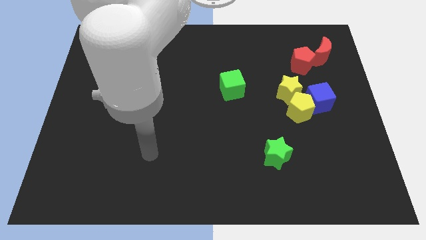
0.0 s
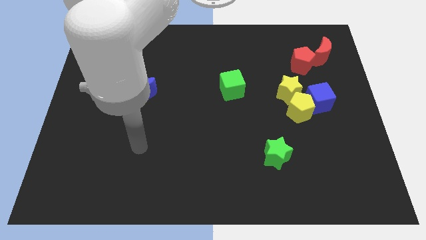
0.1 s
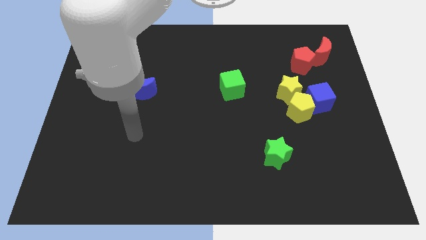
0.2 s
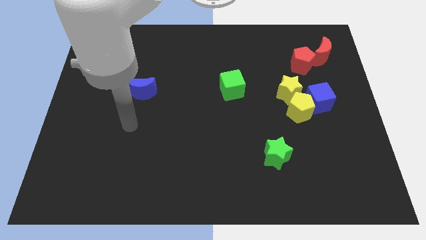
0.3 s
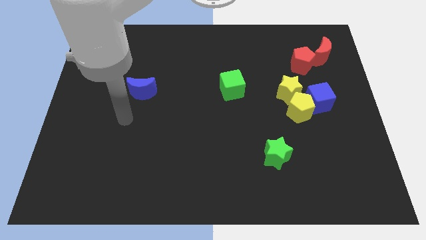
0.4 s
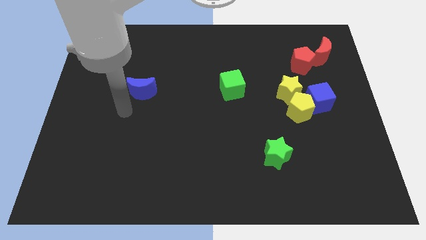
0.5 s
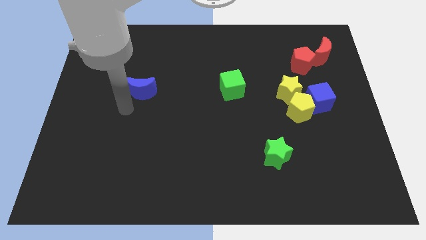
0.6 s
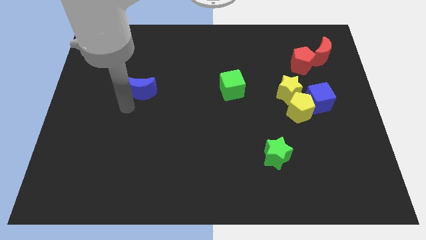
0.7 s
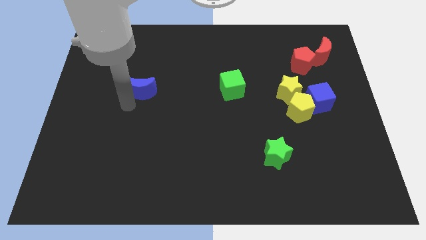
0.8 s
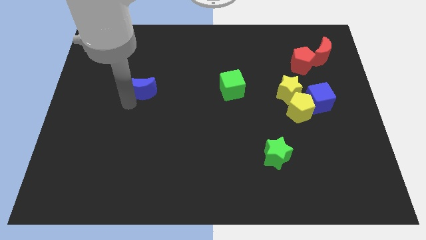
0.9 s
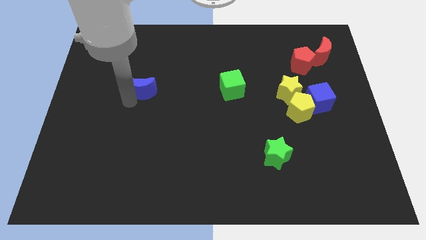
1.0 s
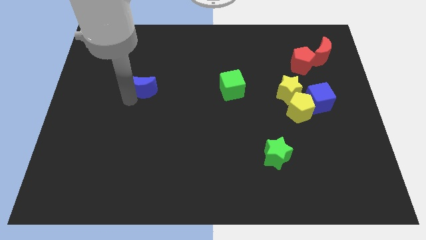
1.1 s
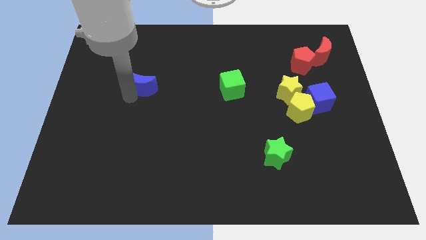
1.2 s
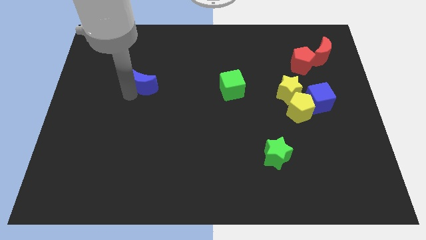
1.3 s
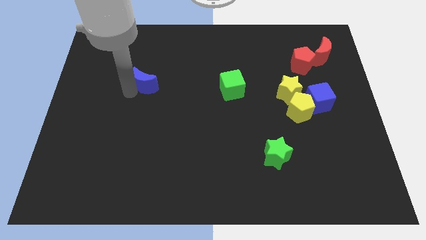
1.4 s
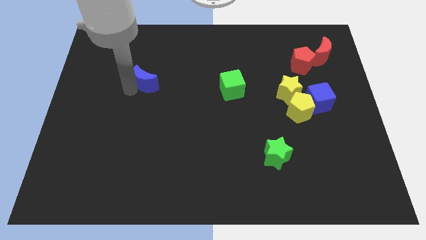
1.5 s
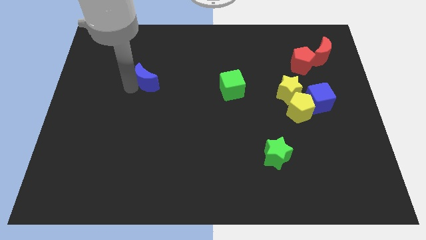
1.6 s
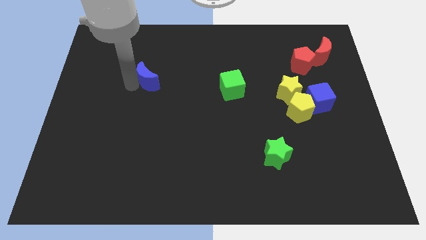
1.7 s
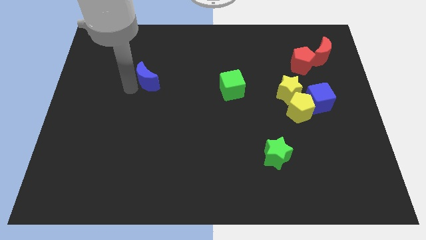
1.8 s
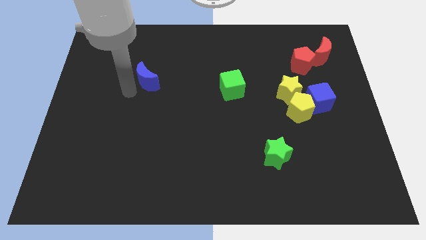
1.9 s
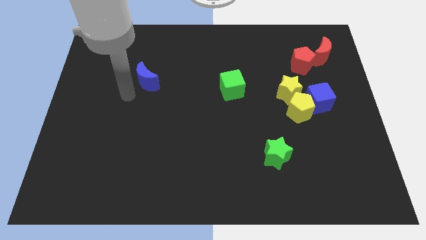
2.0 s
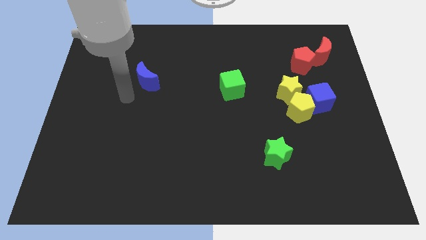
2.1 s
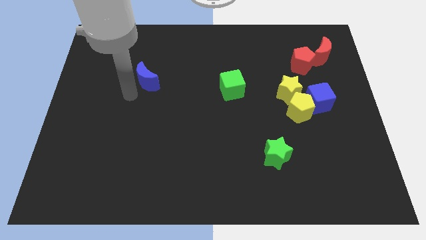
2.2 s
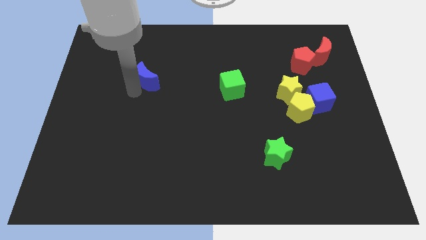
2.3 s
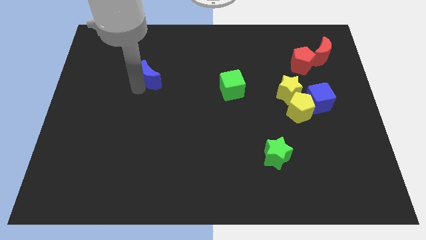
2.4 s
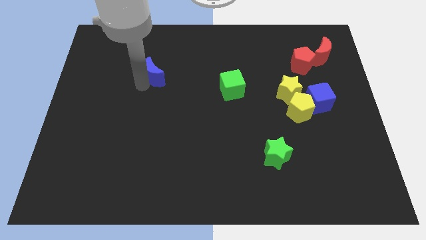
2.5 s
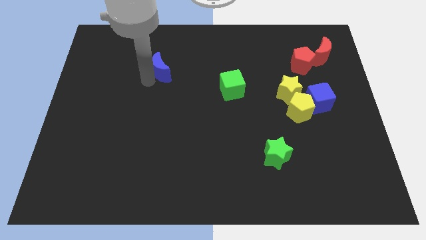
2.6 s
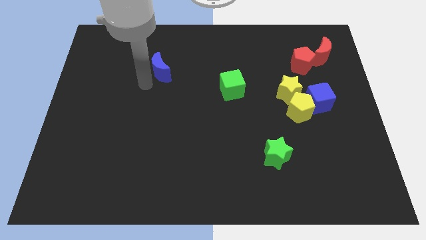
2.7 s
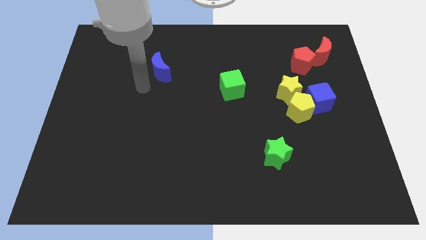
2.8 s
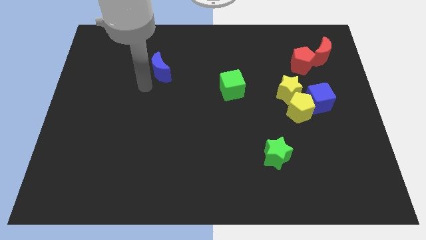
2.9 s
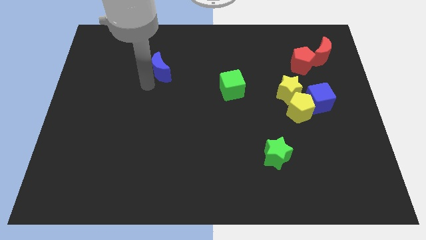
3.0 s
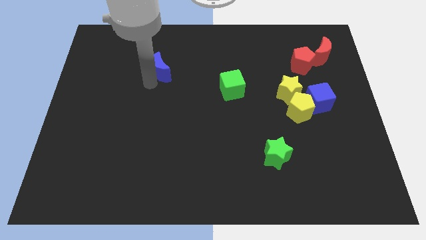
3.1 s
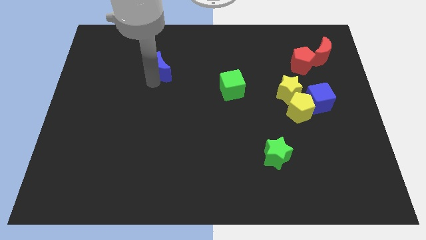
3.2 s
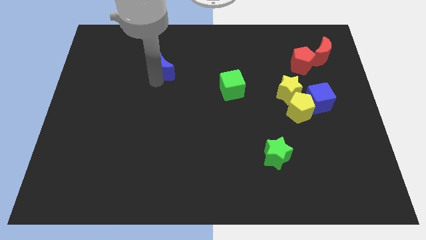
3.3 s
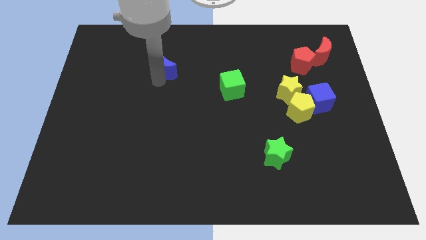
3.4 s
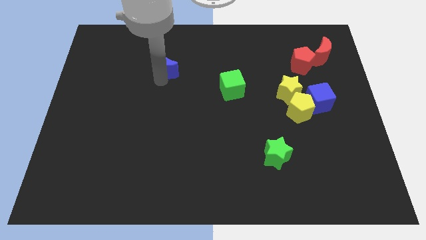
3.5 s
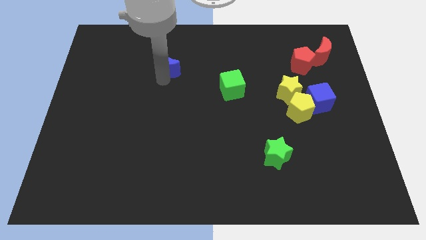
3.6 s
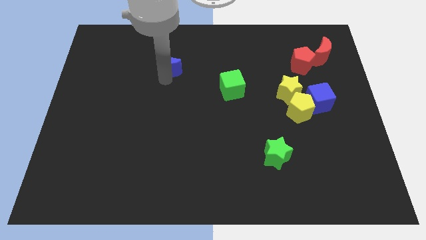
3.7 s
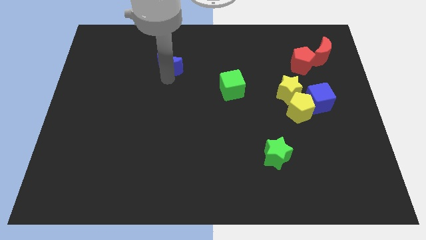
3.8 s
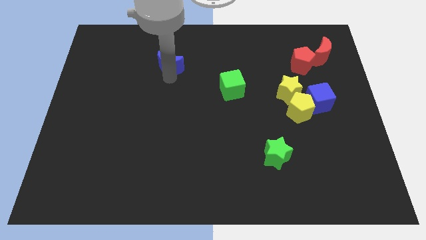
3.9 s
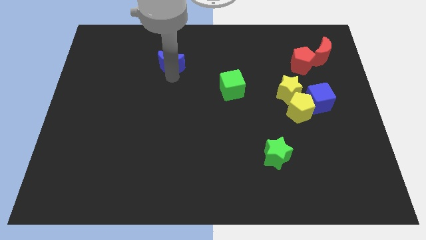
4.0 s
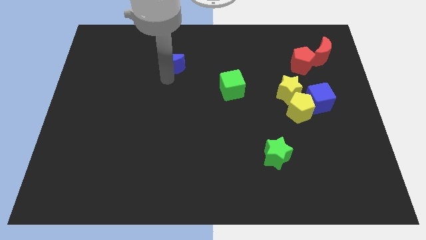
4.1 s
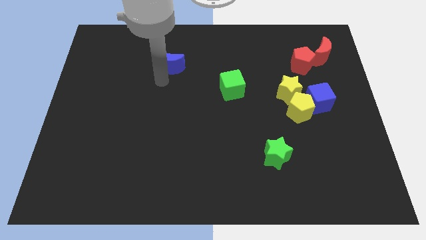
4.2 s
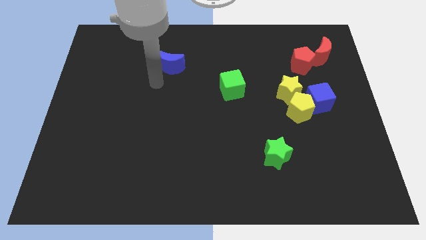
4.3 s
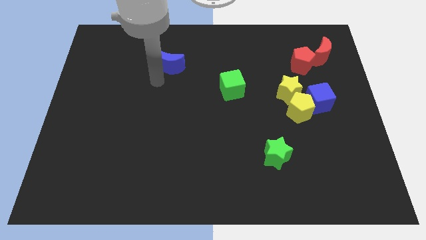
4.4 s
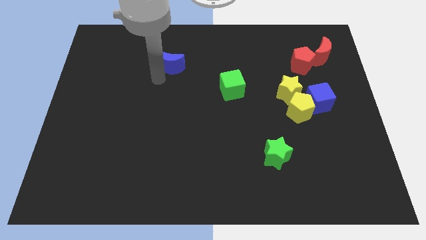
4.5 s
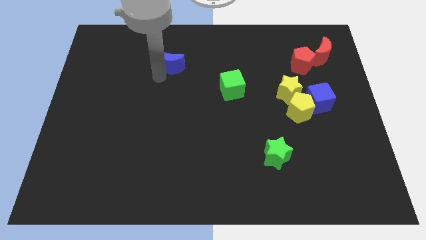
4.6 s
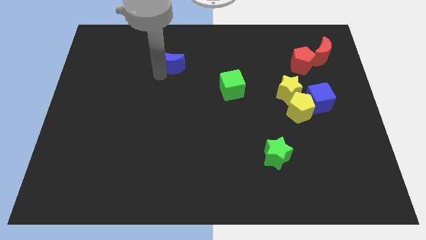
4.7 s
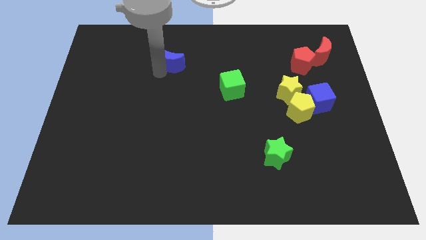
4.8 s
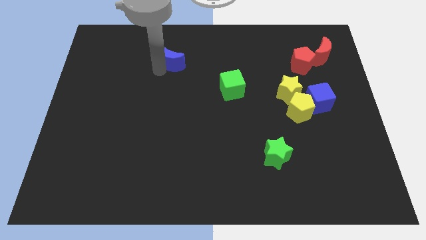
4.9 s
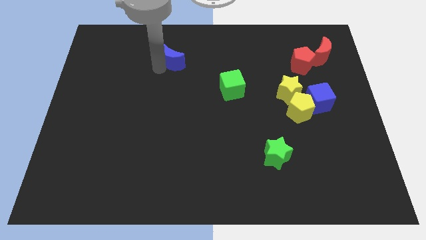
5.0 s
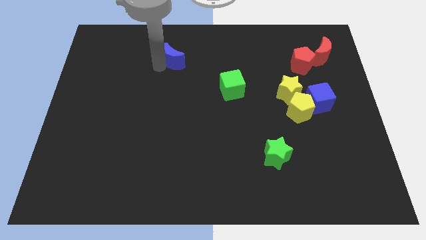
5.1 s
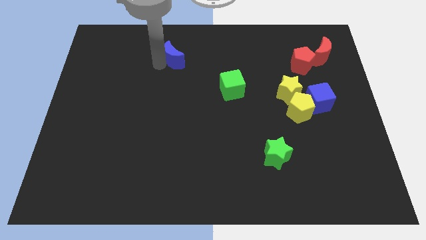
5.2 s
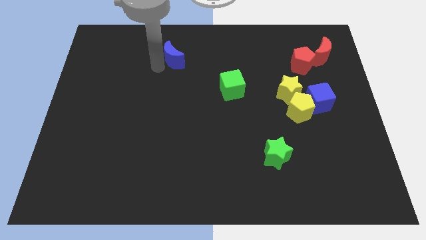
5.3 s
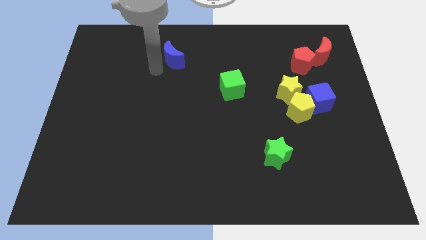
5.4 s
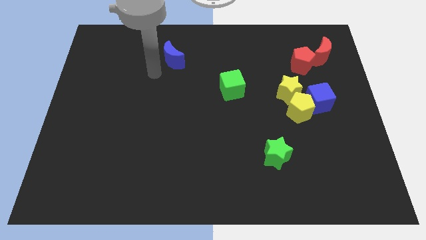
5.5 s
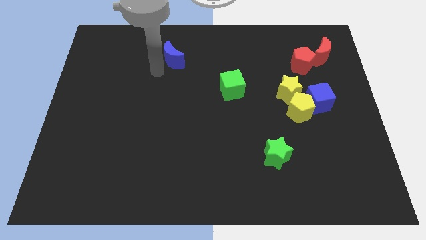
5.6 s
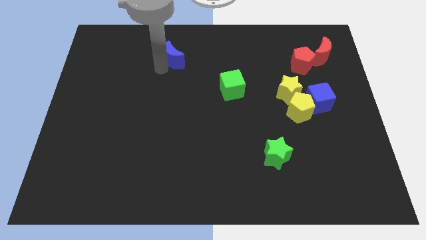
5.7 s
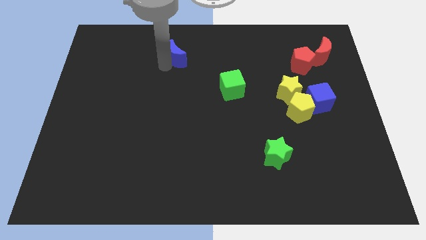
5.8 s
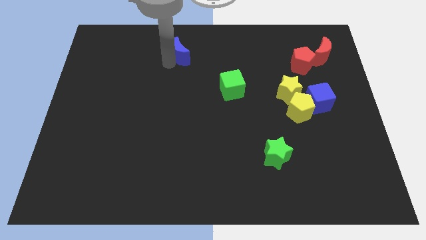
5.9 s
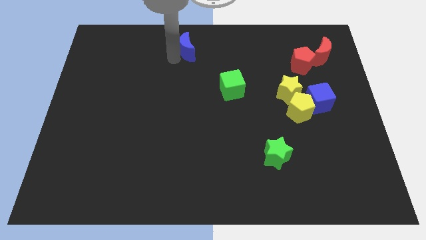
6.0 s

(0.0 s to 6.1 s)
put the blue moon to the top side

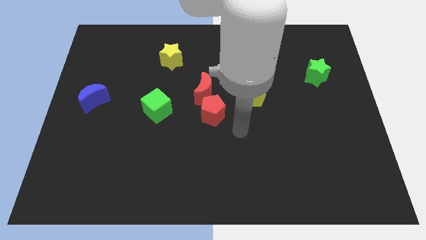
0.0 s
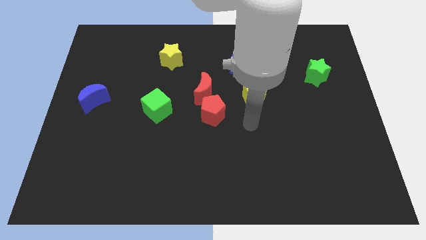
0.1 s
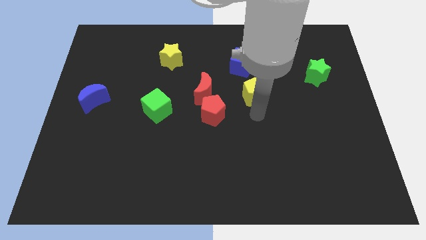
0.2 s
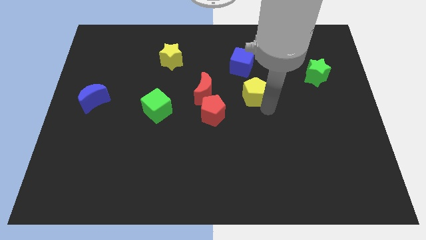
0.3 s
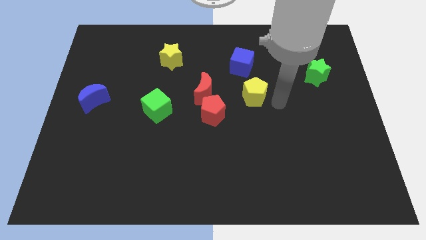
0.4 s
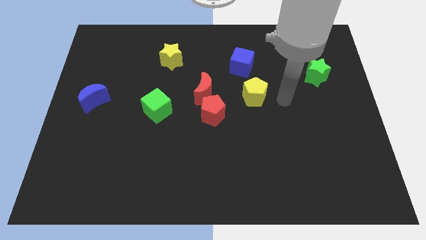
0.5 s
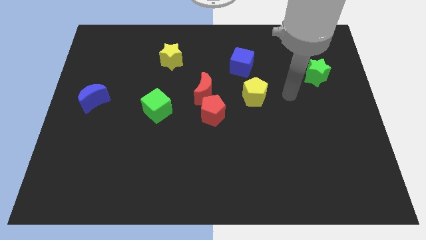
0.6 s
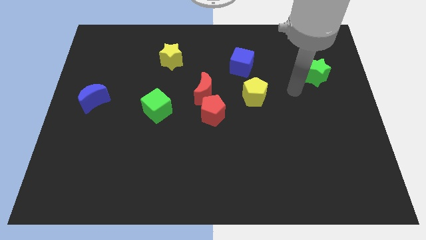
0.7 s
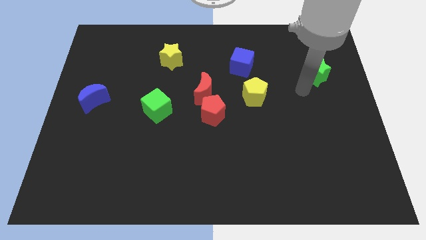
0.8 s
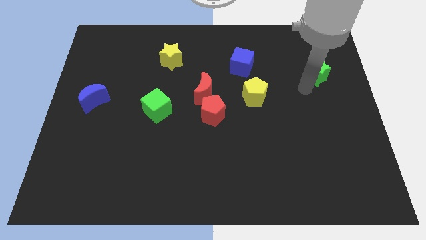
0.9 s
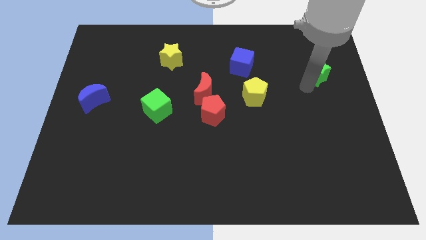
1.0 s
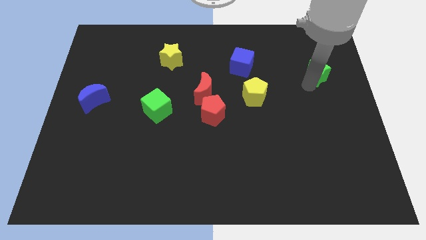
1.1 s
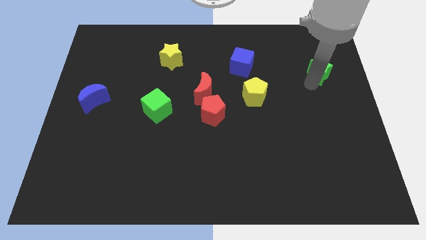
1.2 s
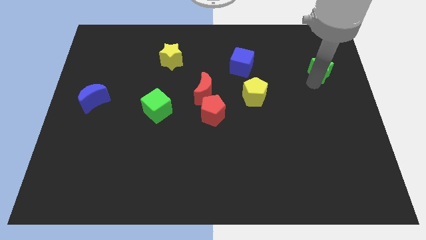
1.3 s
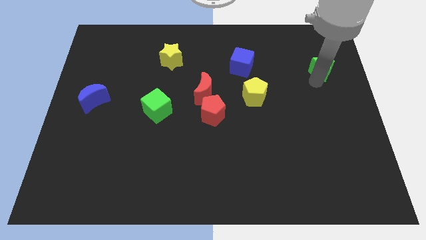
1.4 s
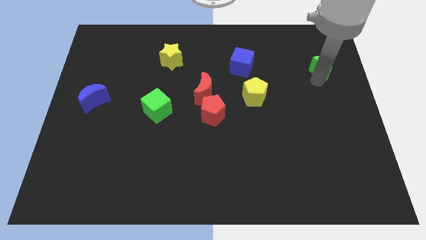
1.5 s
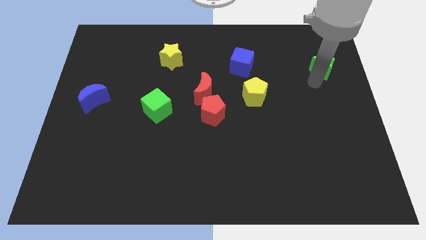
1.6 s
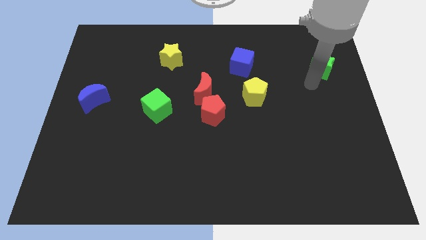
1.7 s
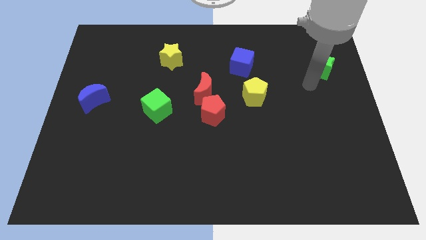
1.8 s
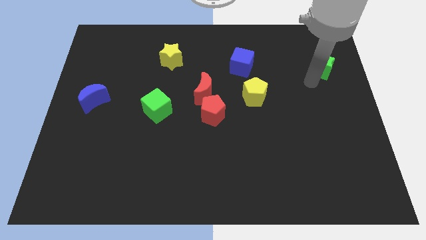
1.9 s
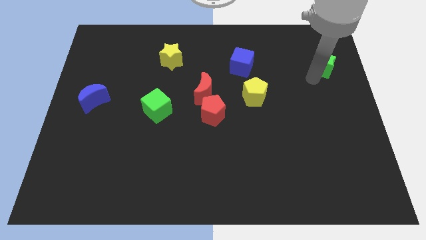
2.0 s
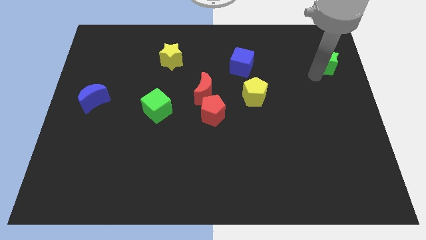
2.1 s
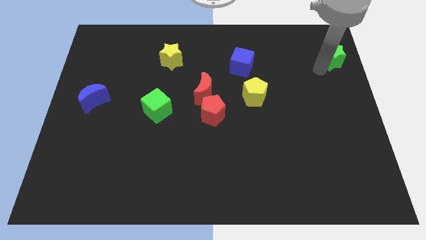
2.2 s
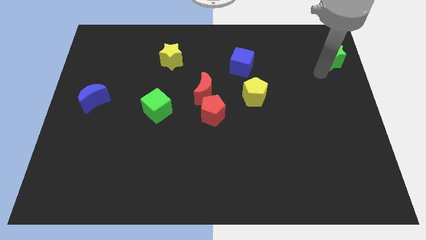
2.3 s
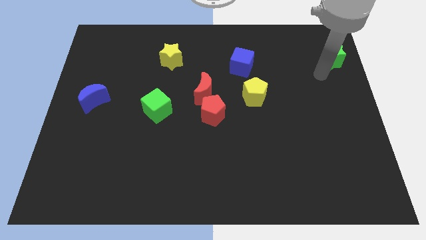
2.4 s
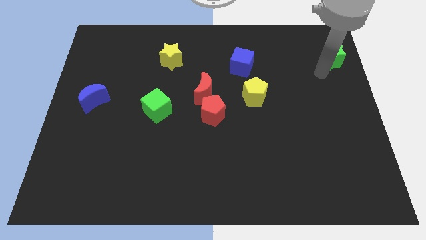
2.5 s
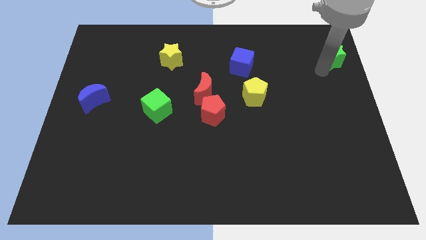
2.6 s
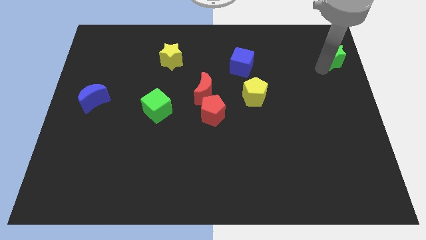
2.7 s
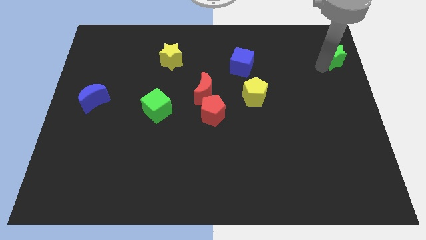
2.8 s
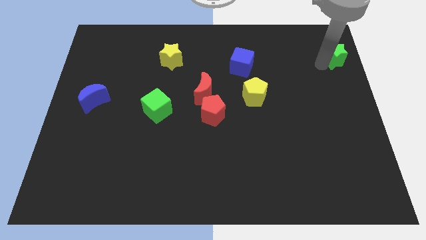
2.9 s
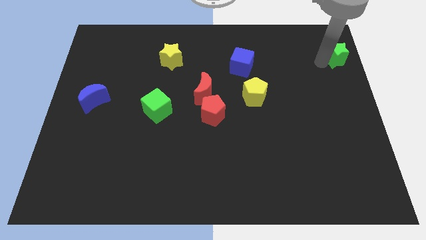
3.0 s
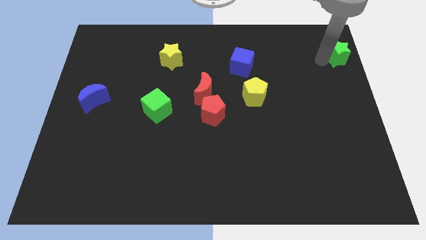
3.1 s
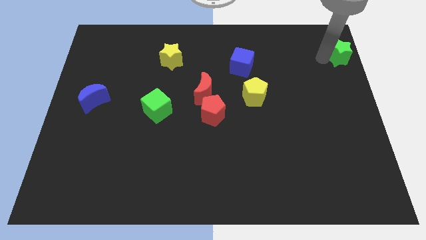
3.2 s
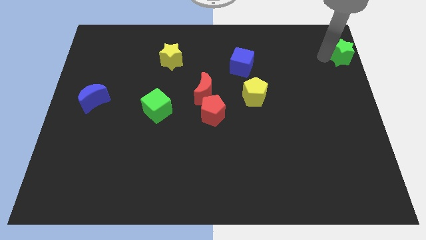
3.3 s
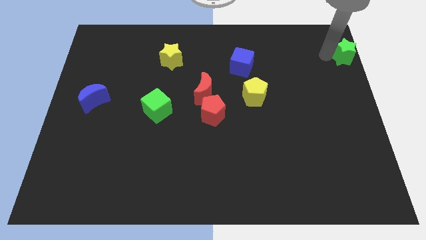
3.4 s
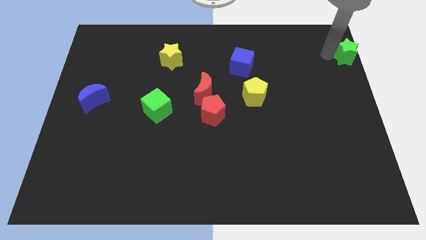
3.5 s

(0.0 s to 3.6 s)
slide the green star to the top right
